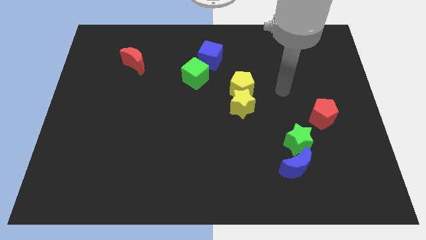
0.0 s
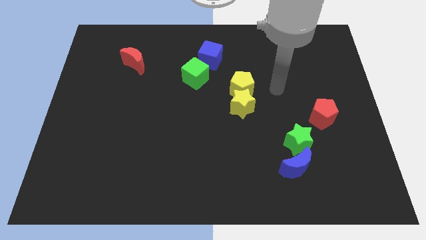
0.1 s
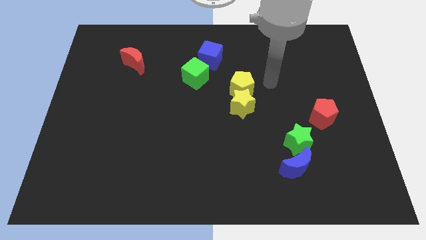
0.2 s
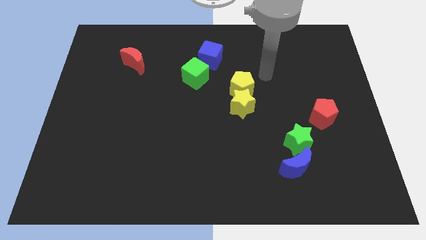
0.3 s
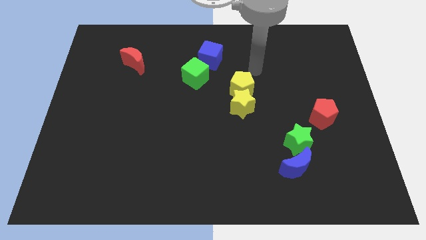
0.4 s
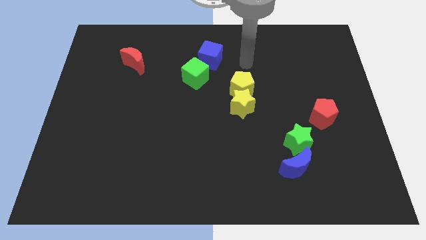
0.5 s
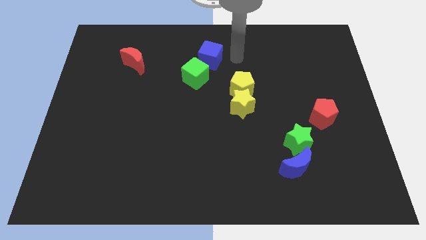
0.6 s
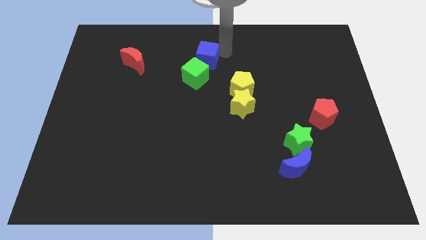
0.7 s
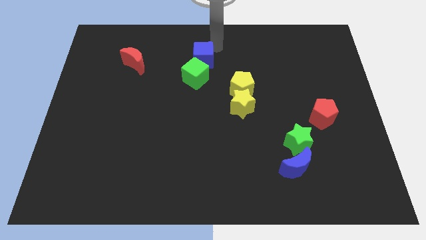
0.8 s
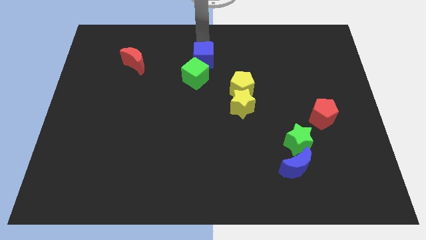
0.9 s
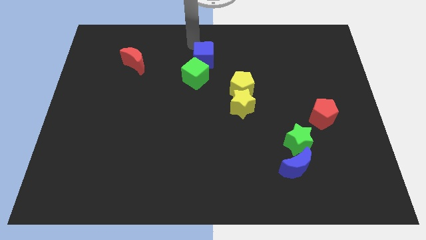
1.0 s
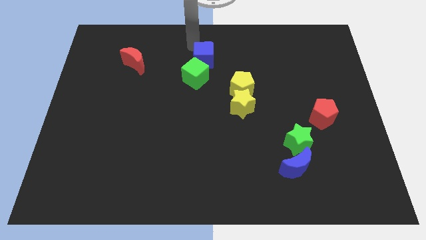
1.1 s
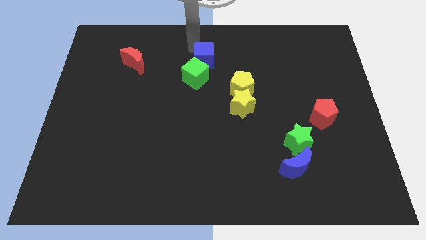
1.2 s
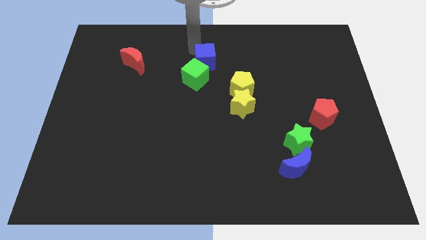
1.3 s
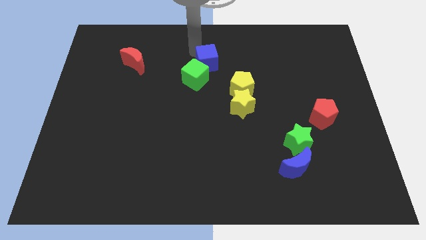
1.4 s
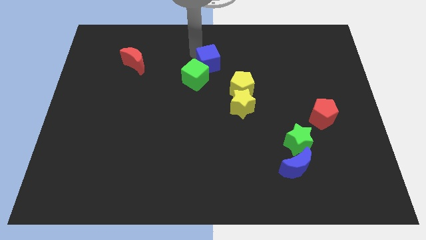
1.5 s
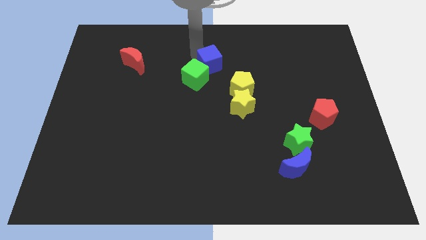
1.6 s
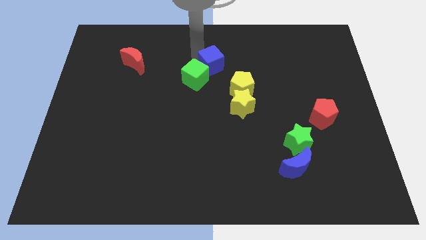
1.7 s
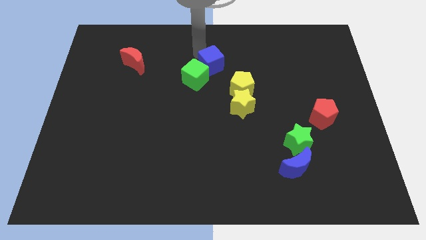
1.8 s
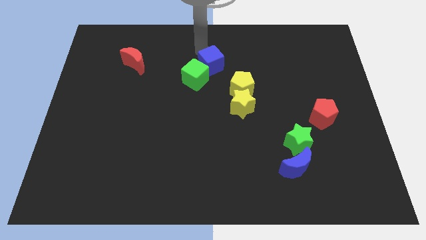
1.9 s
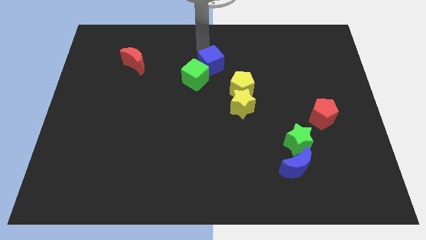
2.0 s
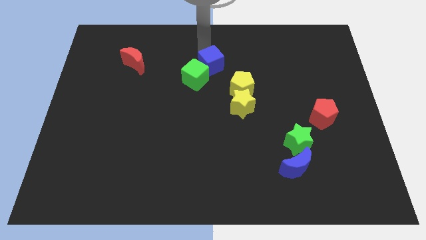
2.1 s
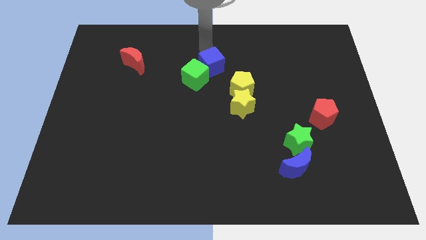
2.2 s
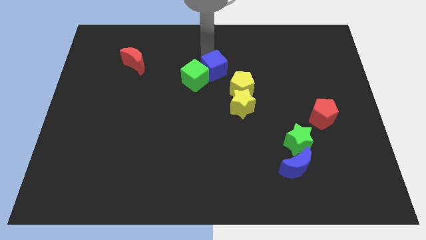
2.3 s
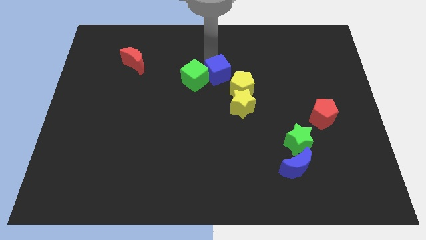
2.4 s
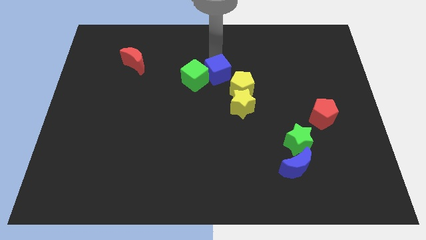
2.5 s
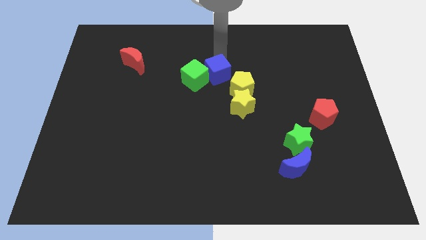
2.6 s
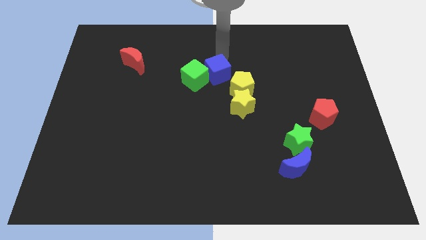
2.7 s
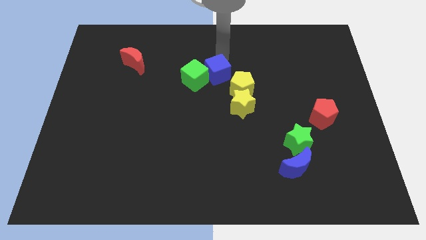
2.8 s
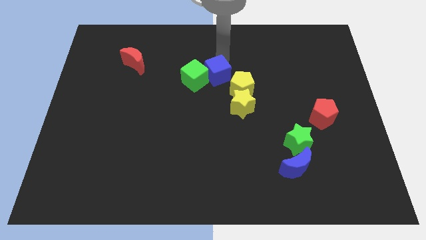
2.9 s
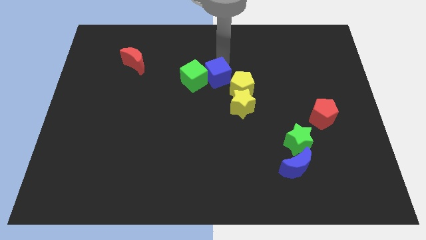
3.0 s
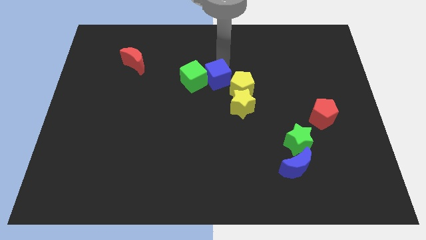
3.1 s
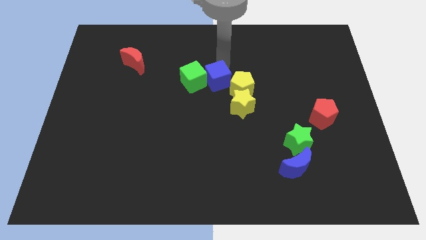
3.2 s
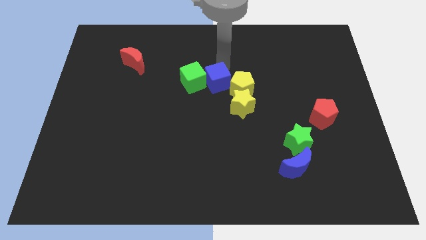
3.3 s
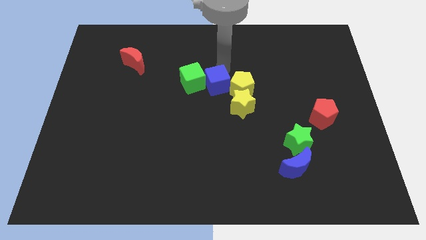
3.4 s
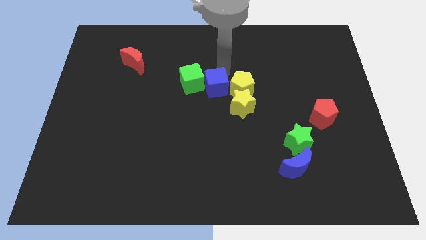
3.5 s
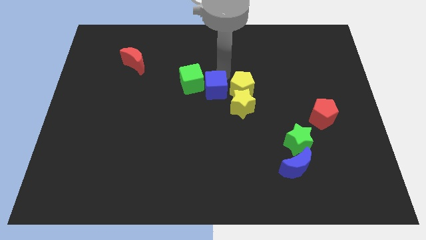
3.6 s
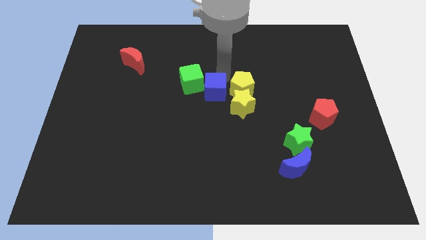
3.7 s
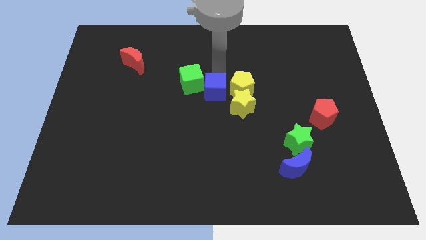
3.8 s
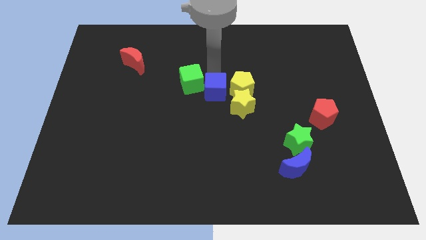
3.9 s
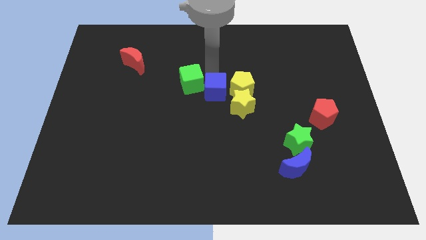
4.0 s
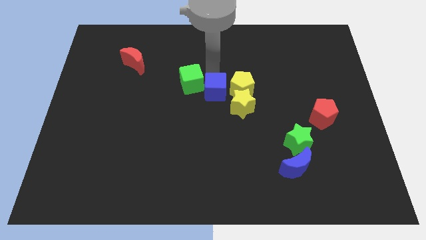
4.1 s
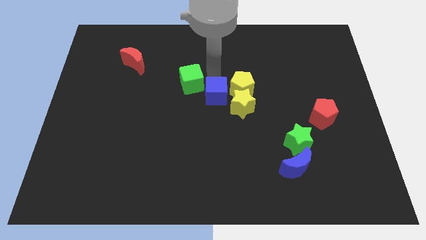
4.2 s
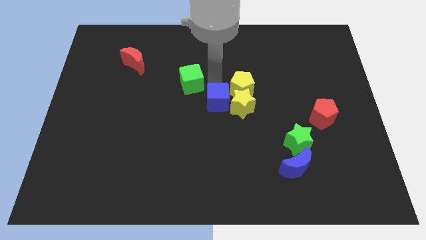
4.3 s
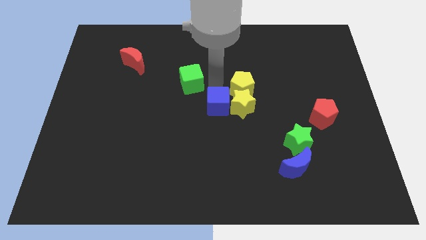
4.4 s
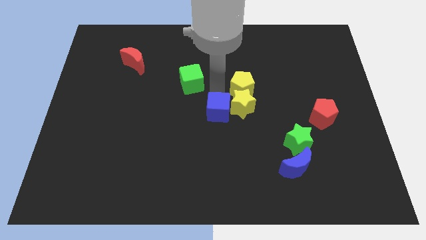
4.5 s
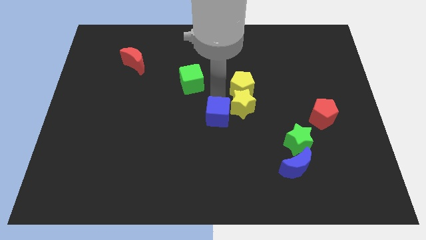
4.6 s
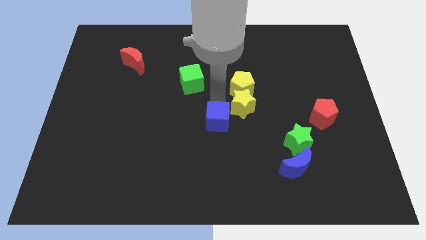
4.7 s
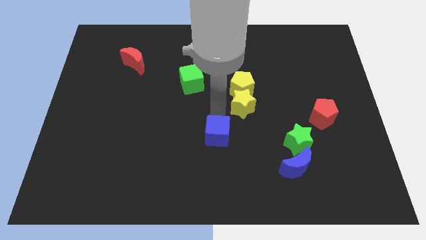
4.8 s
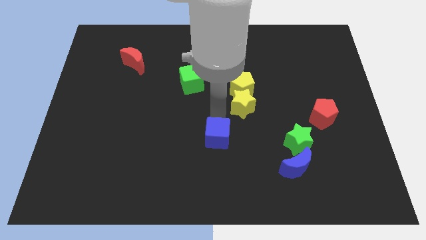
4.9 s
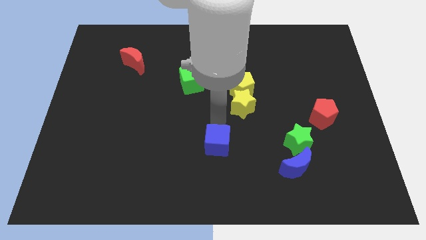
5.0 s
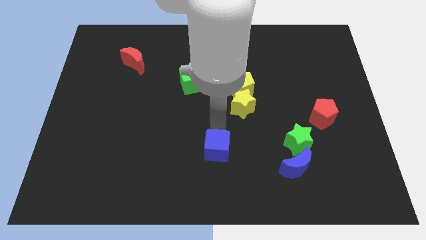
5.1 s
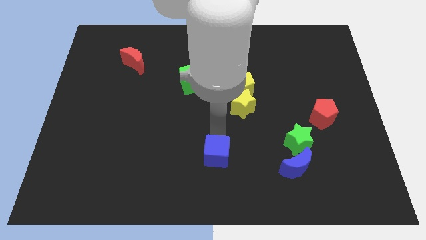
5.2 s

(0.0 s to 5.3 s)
put the blue cube to the bottom side

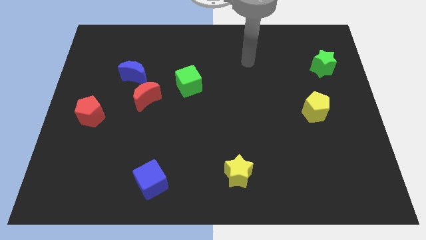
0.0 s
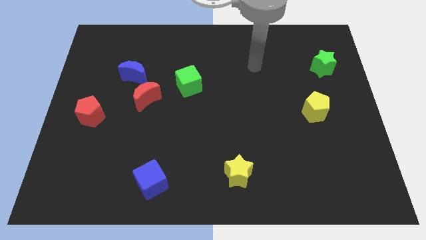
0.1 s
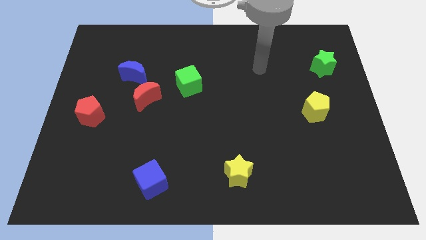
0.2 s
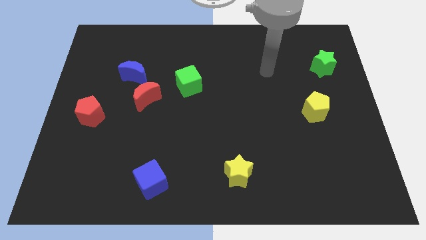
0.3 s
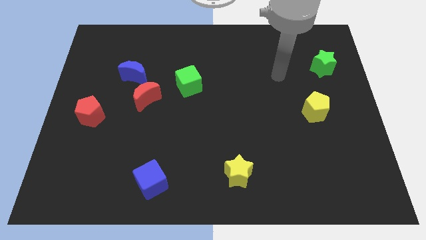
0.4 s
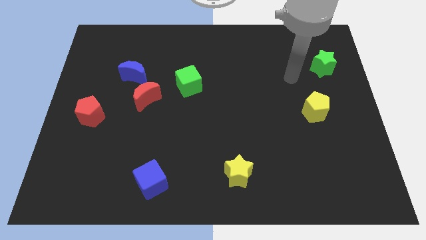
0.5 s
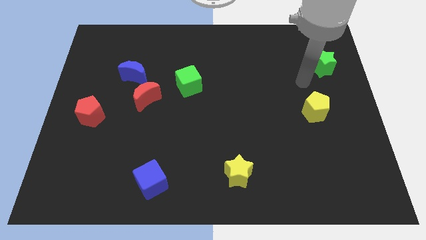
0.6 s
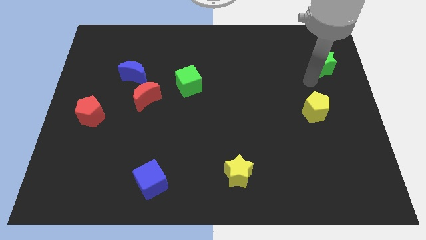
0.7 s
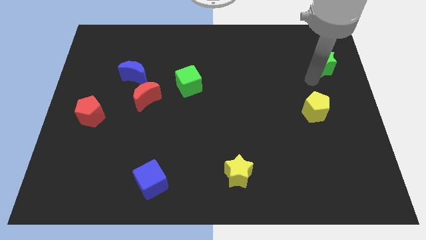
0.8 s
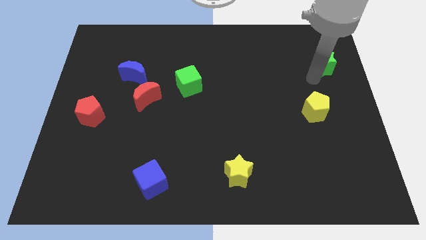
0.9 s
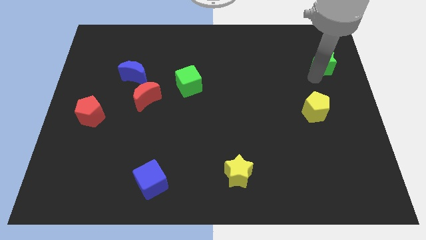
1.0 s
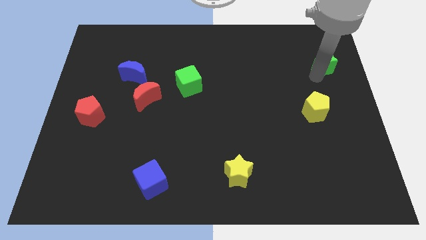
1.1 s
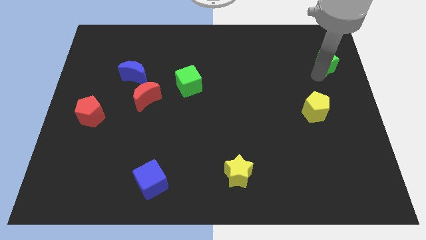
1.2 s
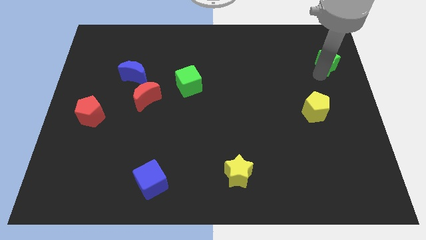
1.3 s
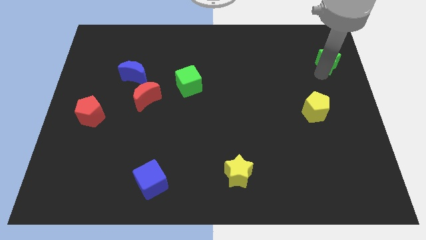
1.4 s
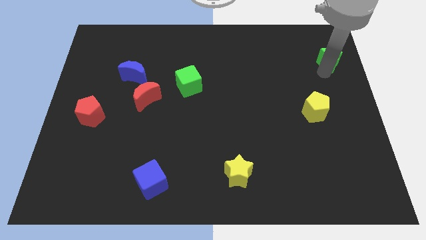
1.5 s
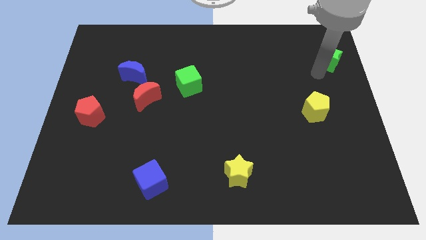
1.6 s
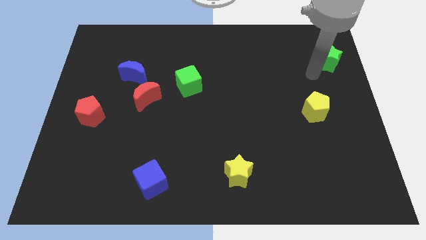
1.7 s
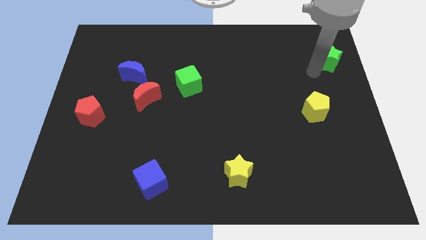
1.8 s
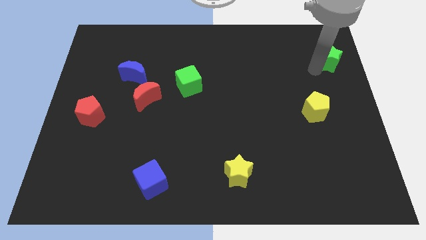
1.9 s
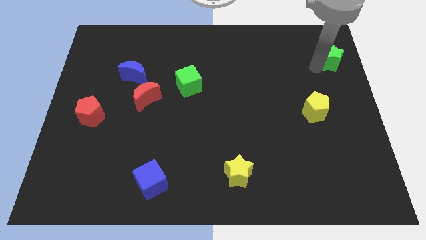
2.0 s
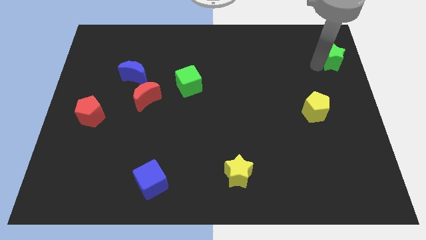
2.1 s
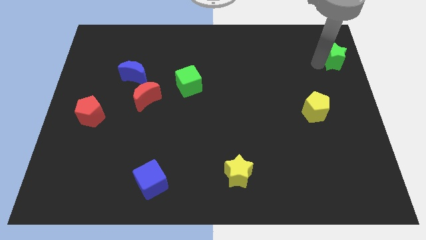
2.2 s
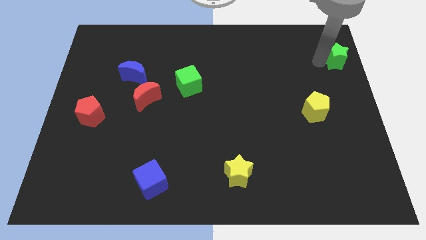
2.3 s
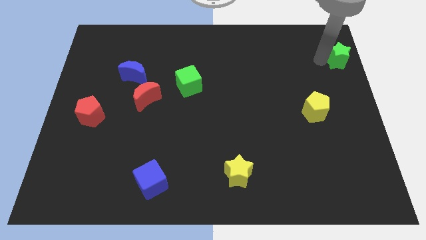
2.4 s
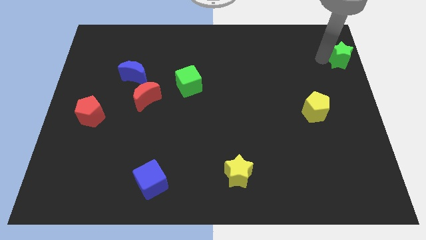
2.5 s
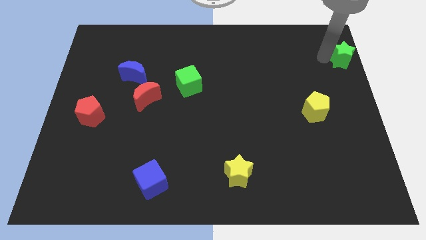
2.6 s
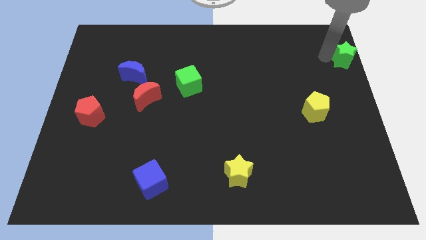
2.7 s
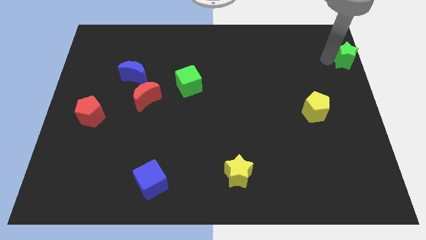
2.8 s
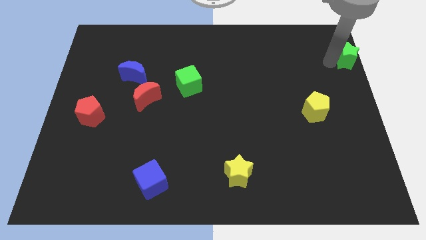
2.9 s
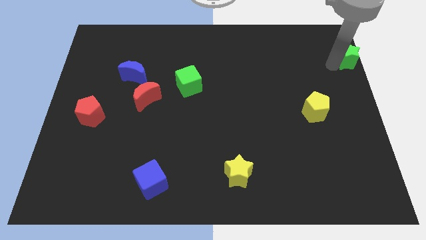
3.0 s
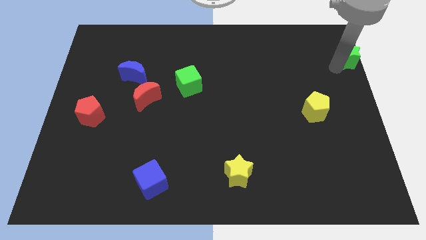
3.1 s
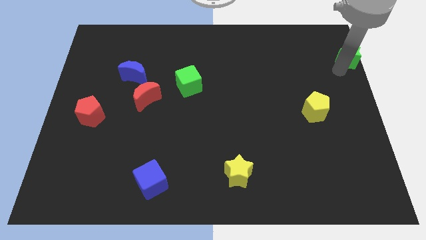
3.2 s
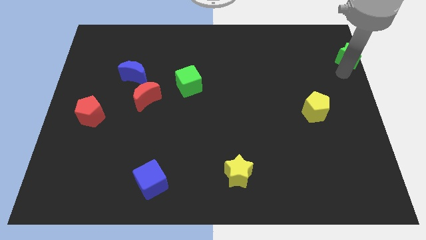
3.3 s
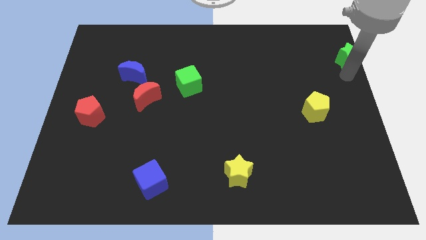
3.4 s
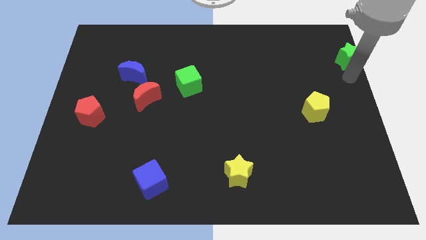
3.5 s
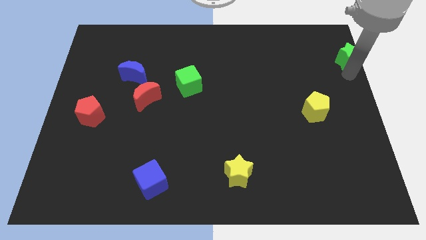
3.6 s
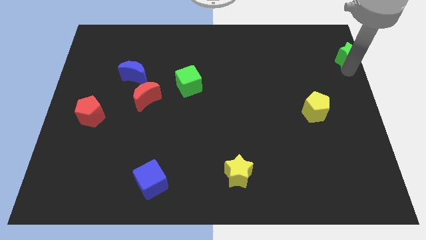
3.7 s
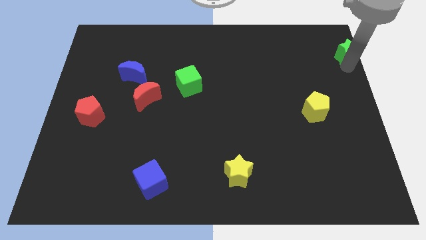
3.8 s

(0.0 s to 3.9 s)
slide the green star to the top right corner
